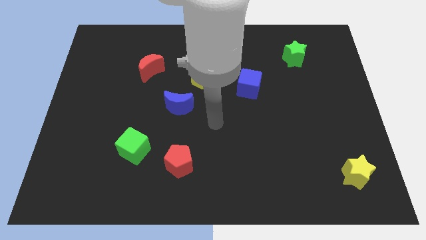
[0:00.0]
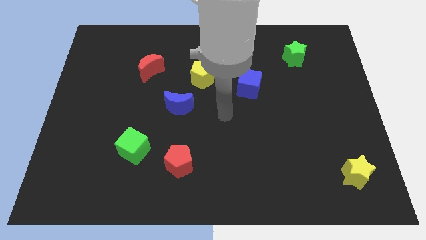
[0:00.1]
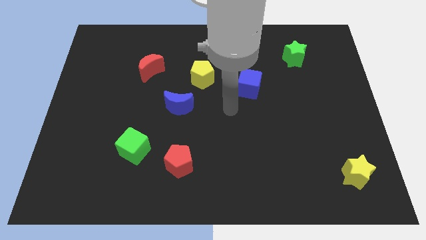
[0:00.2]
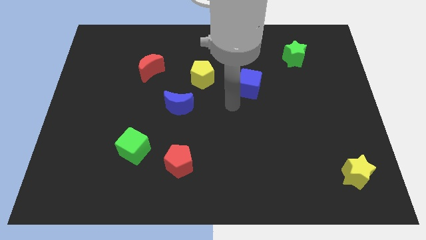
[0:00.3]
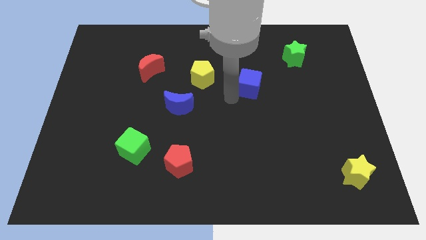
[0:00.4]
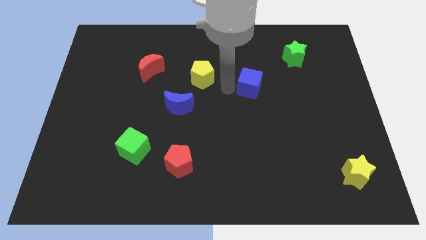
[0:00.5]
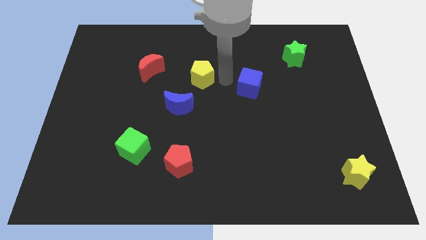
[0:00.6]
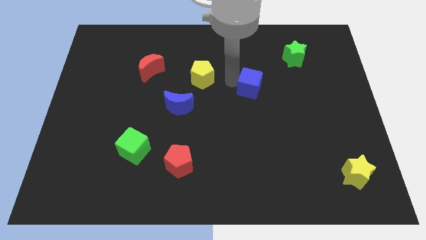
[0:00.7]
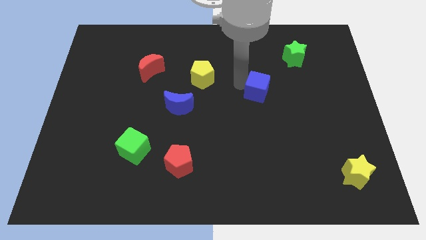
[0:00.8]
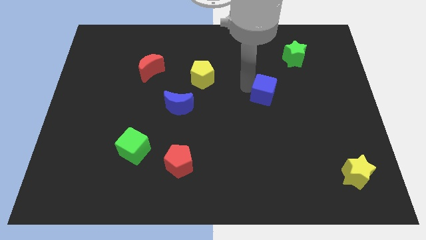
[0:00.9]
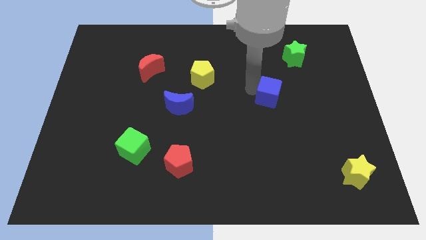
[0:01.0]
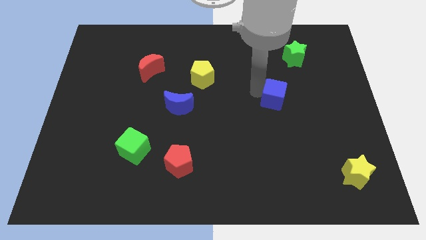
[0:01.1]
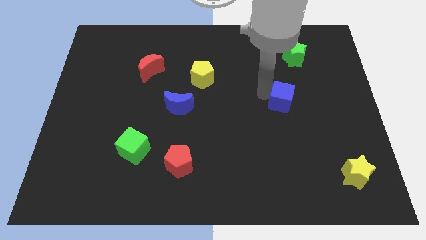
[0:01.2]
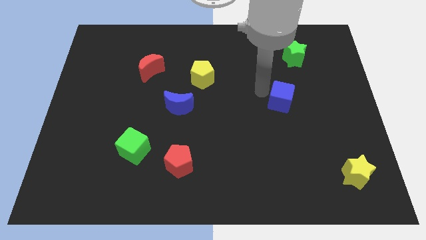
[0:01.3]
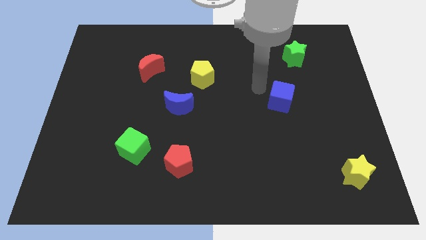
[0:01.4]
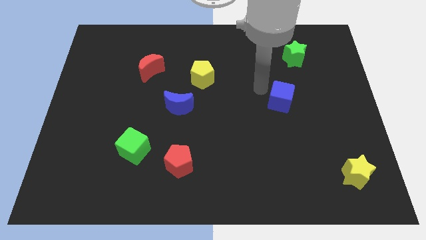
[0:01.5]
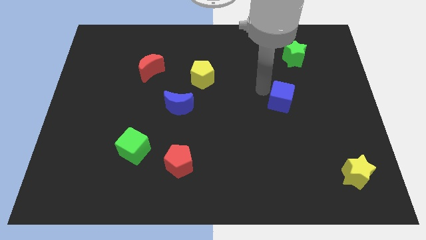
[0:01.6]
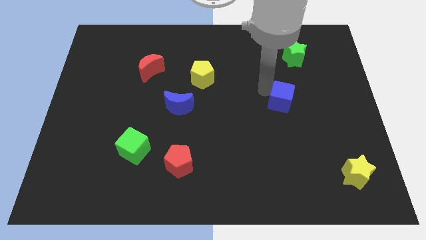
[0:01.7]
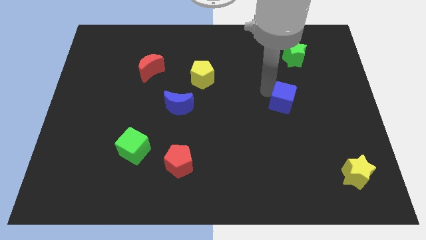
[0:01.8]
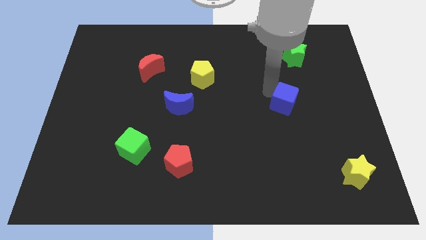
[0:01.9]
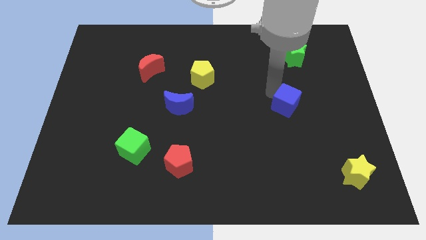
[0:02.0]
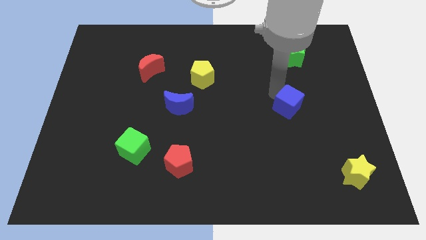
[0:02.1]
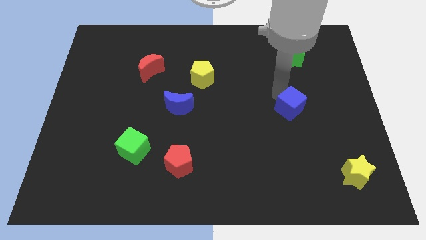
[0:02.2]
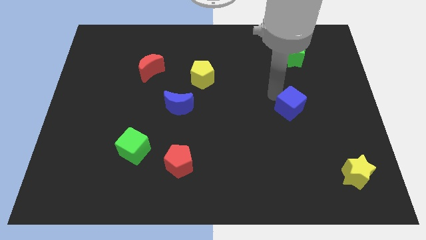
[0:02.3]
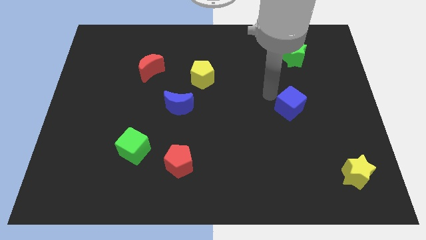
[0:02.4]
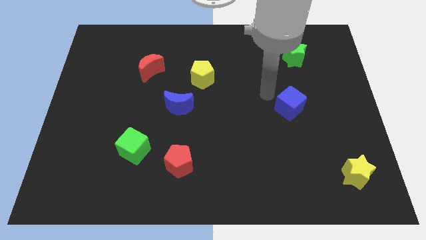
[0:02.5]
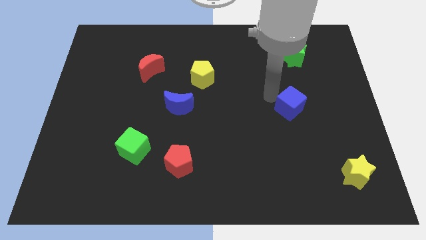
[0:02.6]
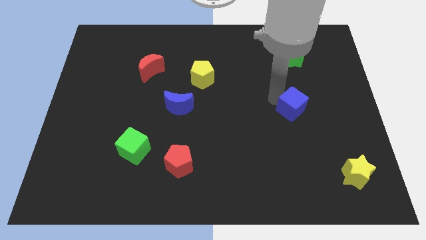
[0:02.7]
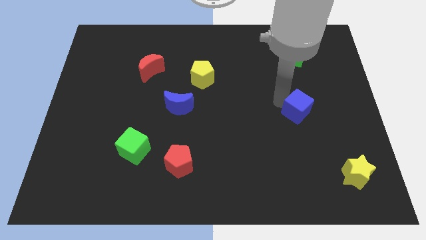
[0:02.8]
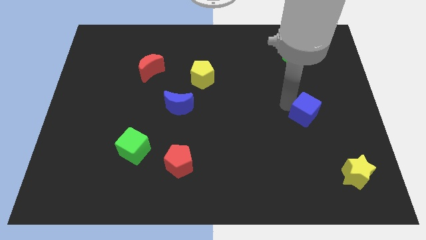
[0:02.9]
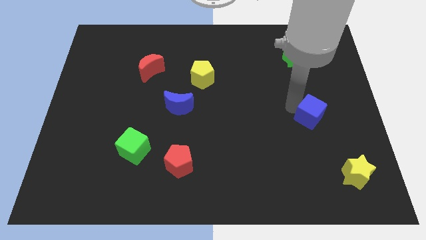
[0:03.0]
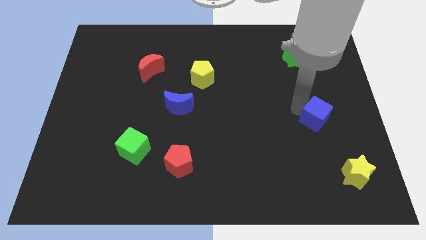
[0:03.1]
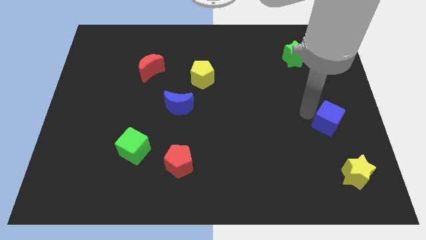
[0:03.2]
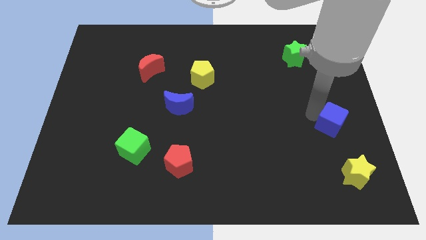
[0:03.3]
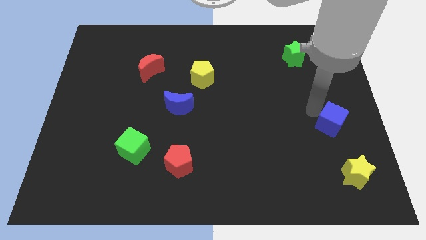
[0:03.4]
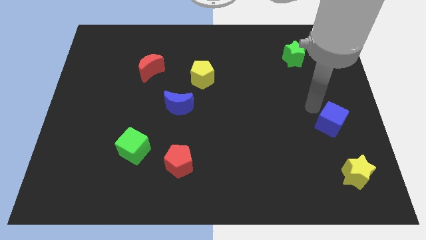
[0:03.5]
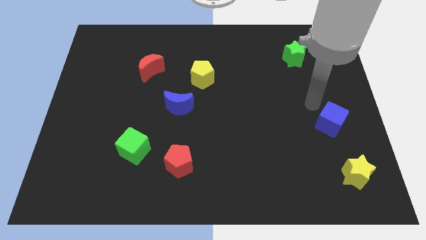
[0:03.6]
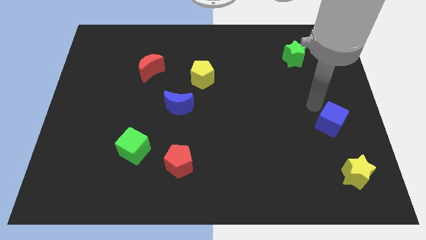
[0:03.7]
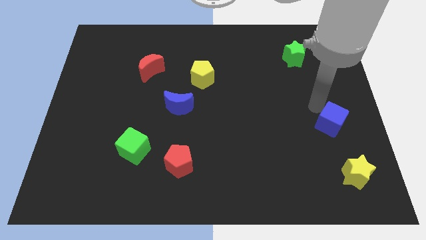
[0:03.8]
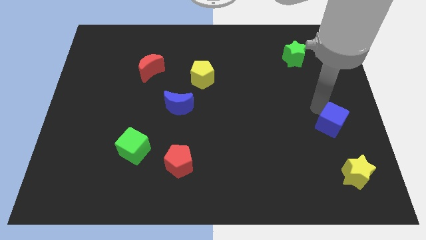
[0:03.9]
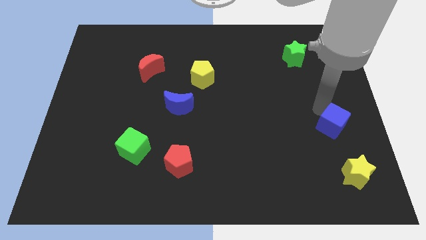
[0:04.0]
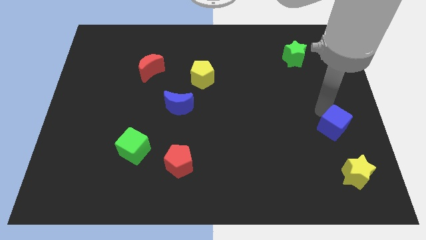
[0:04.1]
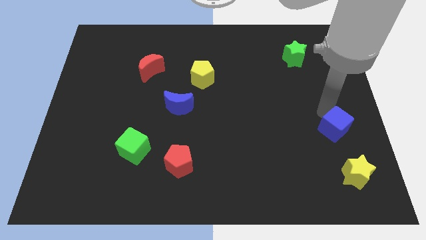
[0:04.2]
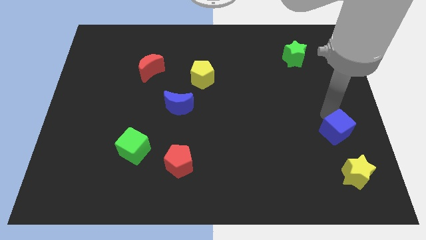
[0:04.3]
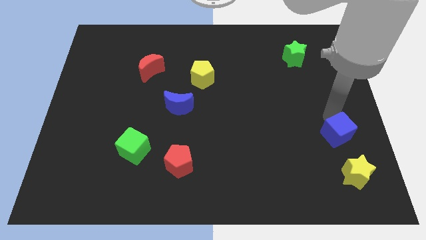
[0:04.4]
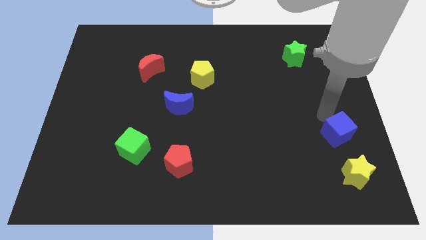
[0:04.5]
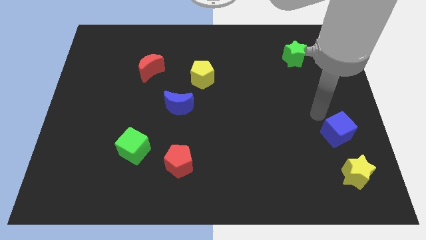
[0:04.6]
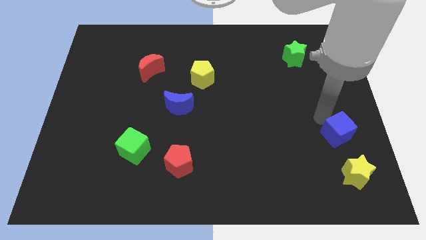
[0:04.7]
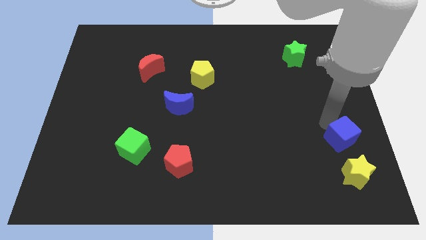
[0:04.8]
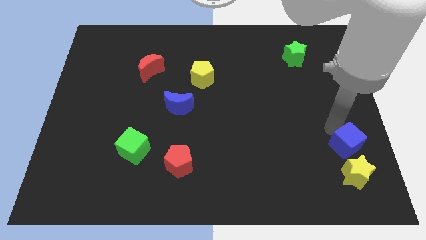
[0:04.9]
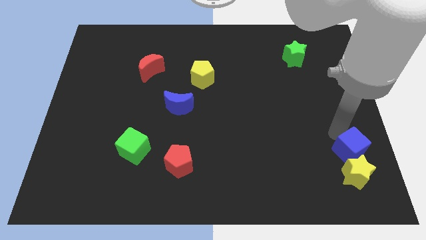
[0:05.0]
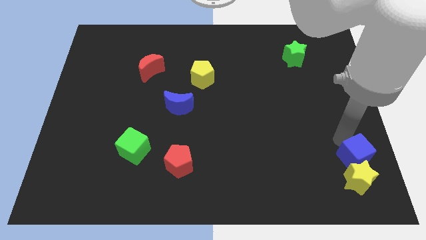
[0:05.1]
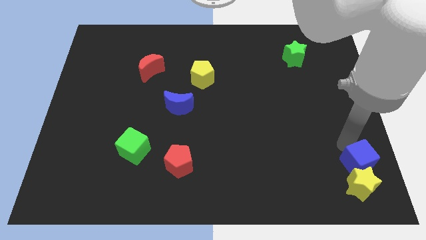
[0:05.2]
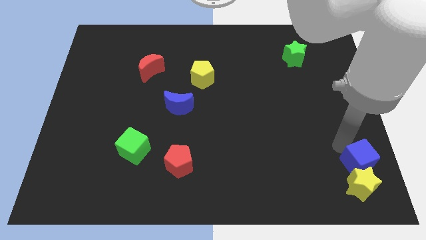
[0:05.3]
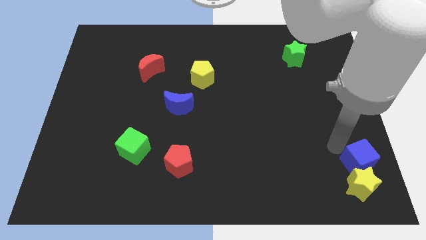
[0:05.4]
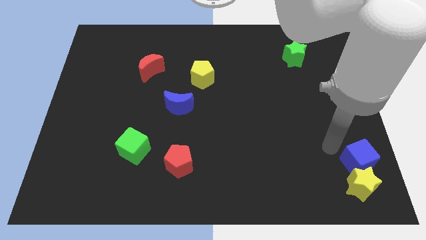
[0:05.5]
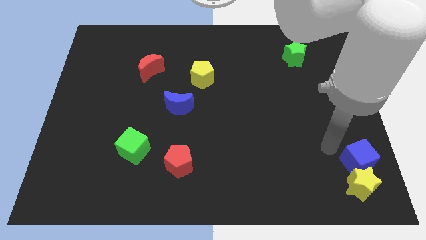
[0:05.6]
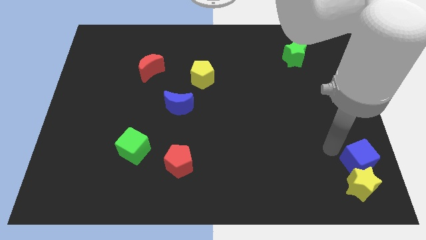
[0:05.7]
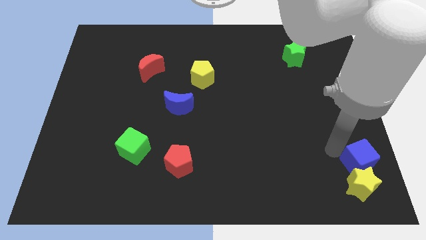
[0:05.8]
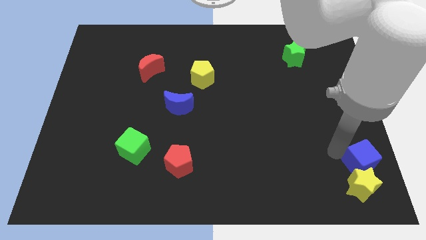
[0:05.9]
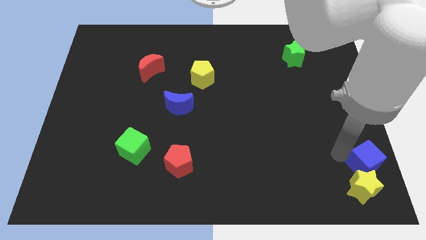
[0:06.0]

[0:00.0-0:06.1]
slide the blue cube to the bottom right
